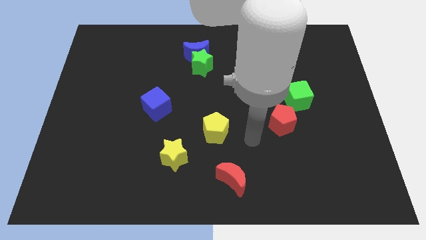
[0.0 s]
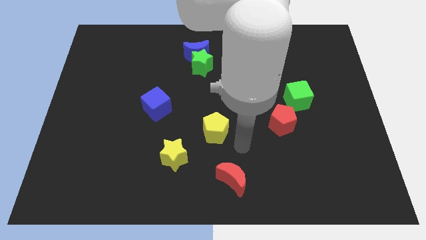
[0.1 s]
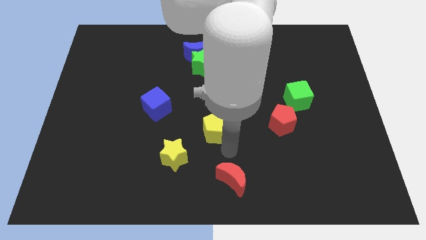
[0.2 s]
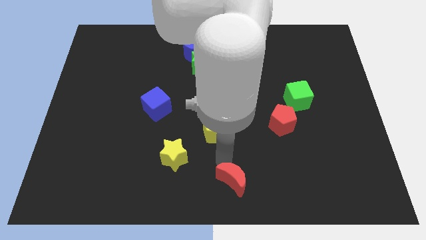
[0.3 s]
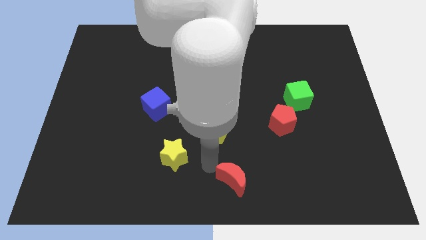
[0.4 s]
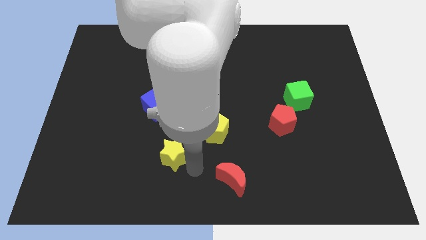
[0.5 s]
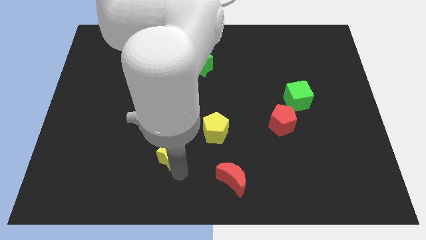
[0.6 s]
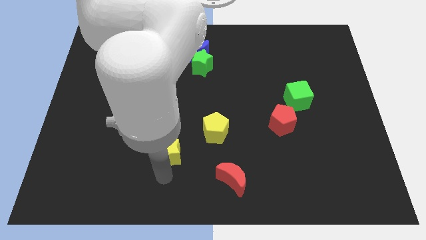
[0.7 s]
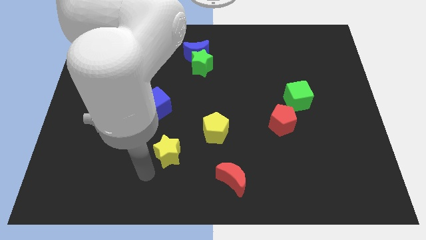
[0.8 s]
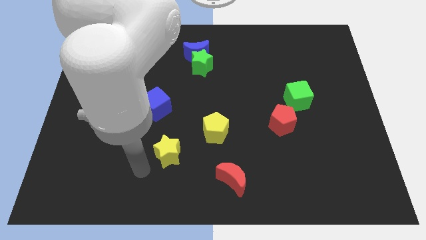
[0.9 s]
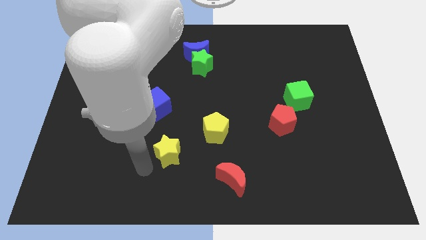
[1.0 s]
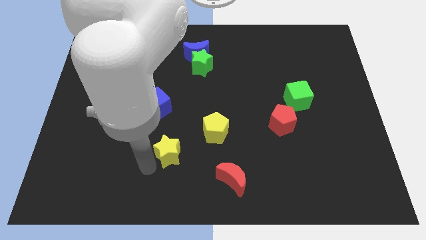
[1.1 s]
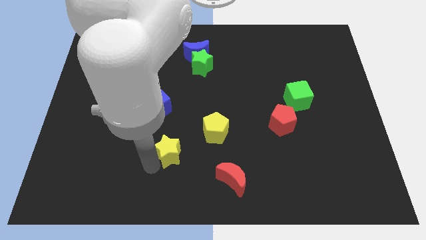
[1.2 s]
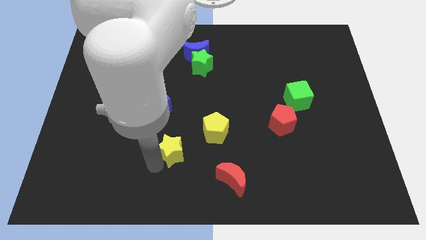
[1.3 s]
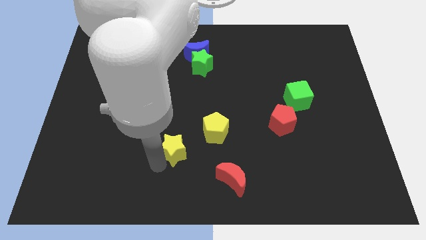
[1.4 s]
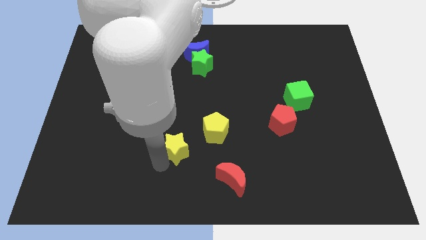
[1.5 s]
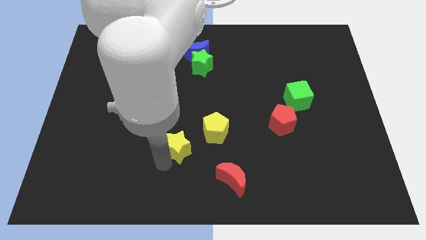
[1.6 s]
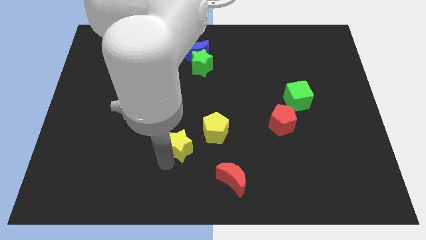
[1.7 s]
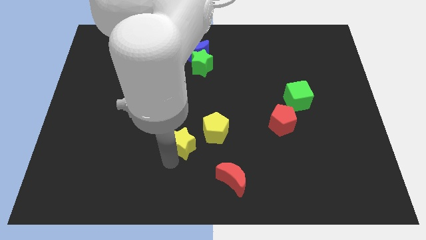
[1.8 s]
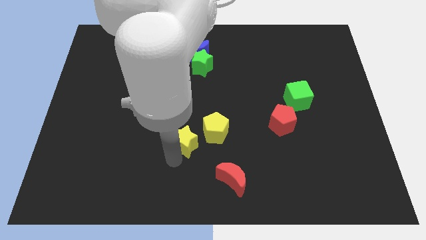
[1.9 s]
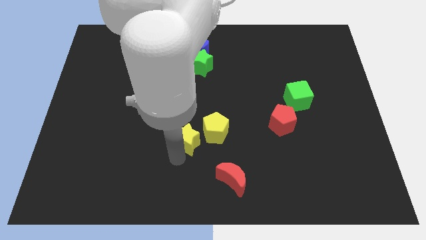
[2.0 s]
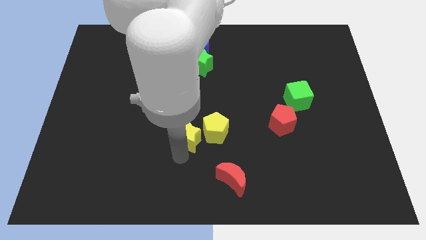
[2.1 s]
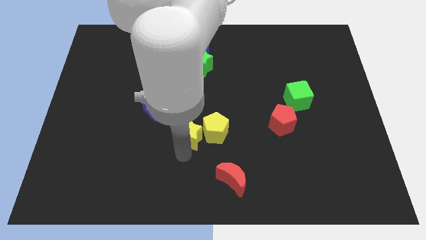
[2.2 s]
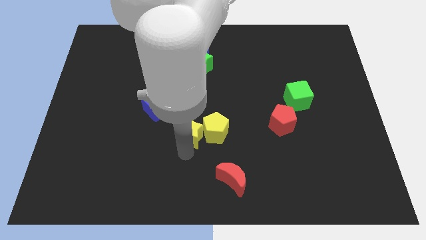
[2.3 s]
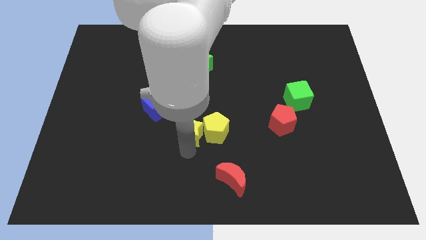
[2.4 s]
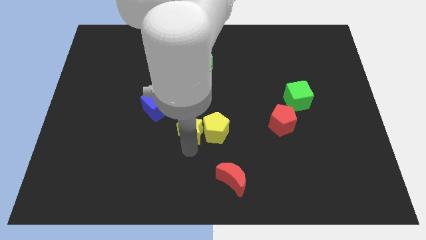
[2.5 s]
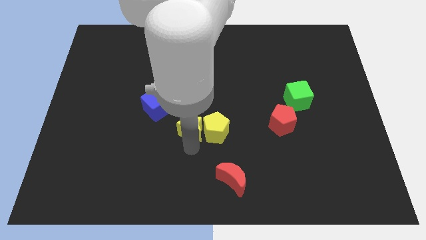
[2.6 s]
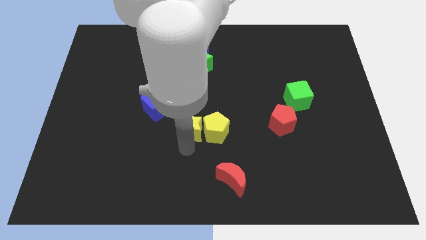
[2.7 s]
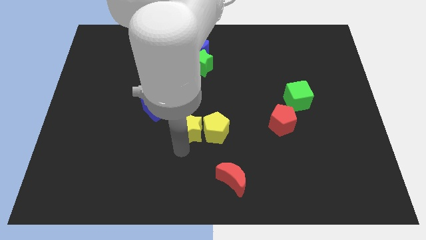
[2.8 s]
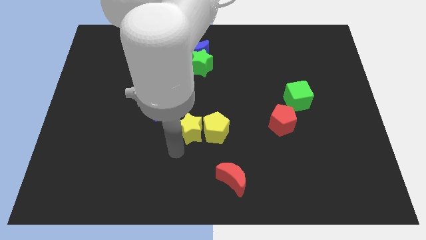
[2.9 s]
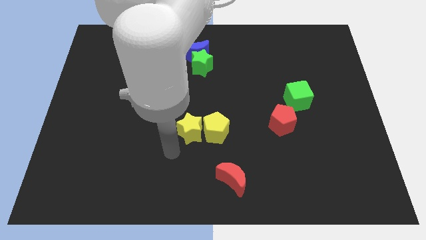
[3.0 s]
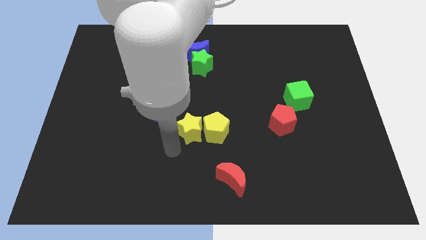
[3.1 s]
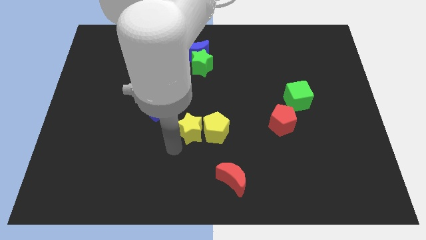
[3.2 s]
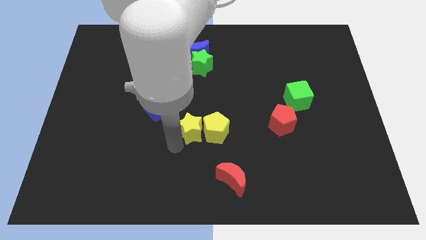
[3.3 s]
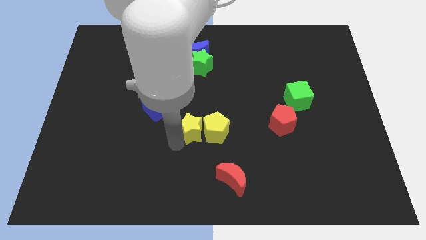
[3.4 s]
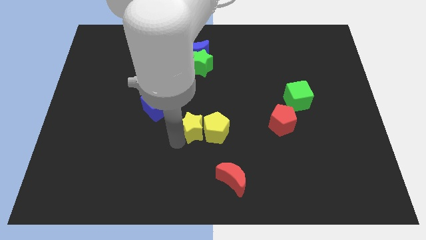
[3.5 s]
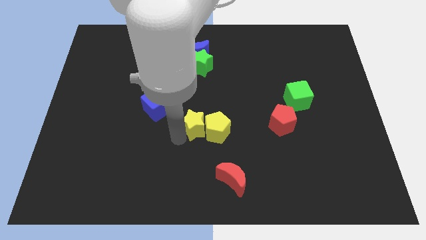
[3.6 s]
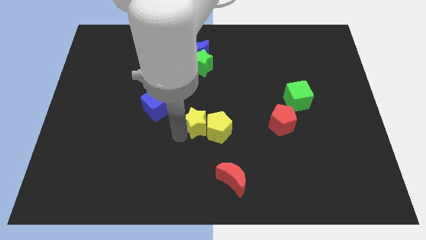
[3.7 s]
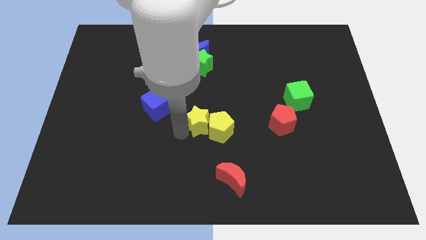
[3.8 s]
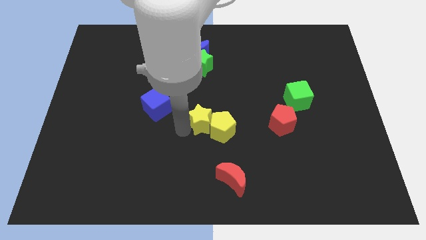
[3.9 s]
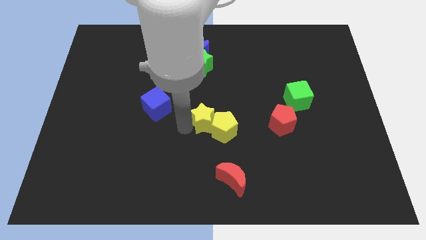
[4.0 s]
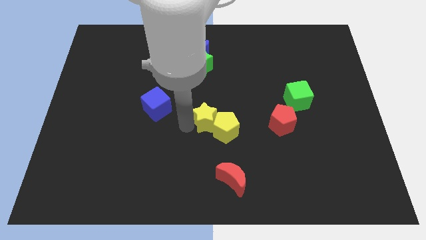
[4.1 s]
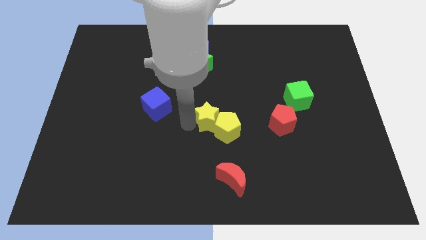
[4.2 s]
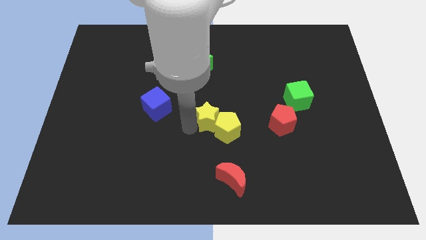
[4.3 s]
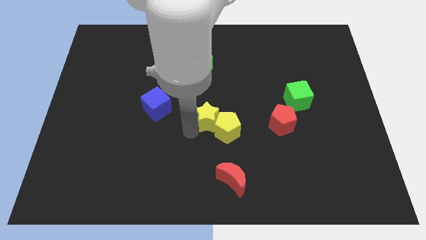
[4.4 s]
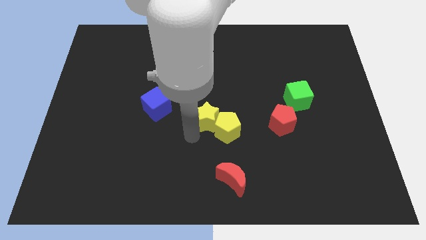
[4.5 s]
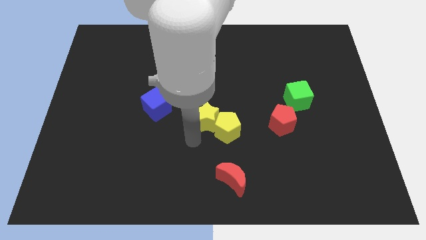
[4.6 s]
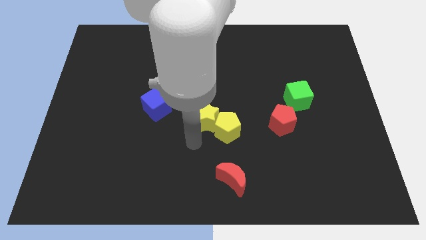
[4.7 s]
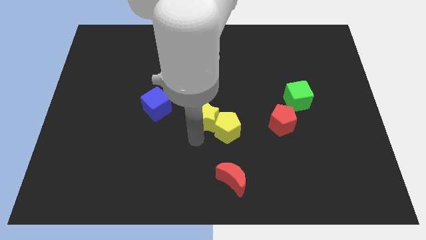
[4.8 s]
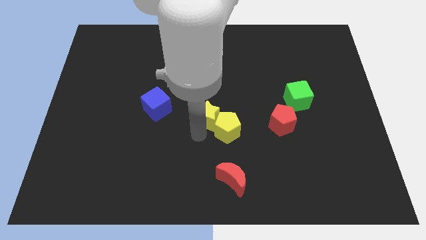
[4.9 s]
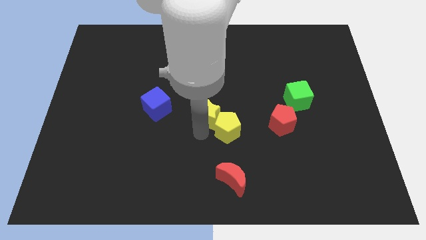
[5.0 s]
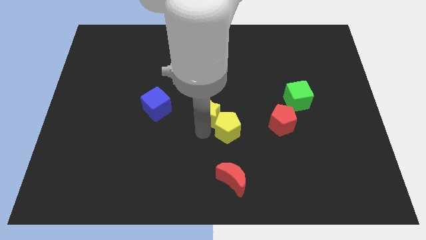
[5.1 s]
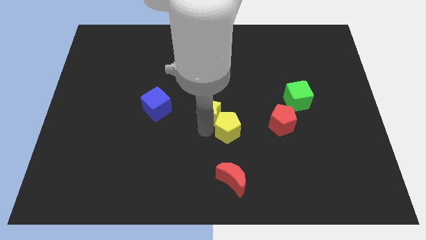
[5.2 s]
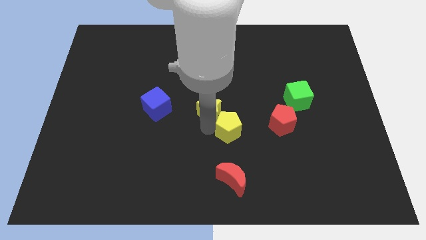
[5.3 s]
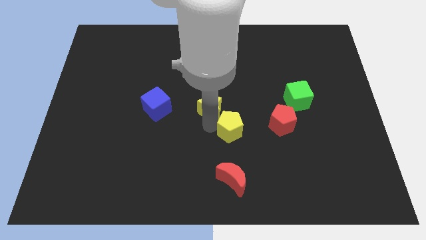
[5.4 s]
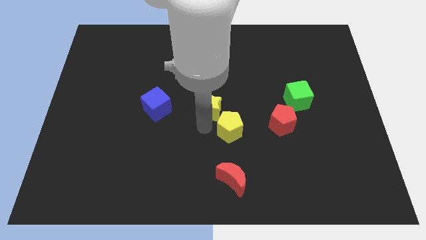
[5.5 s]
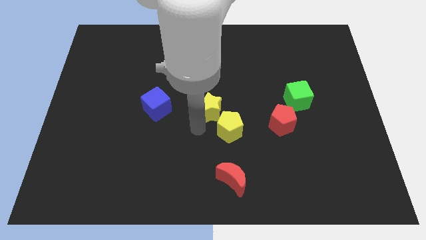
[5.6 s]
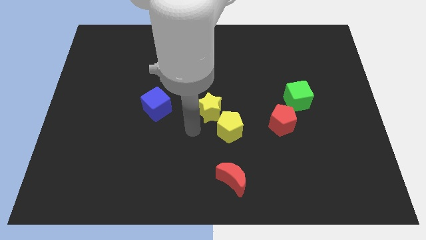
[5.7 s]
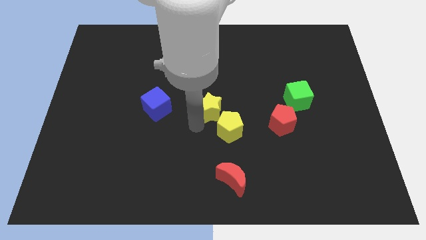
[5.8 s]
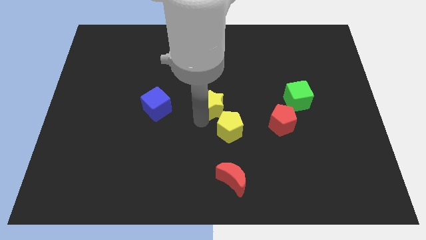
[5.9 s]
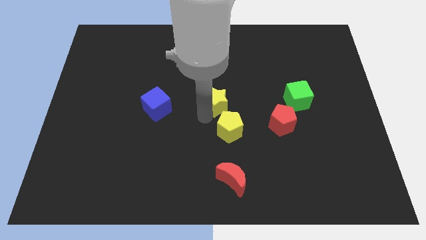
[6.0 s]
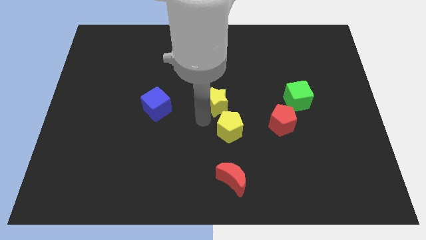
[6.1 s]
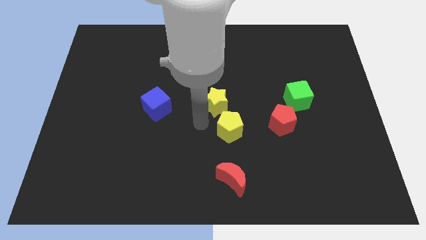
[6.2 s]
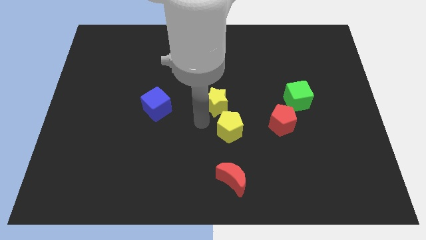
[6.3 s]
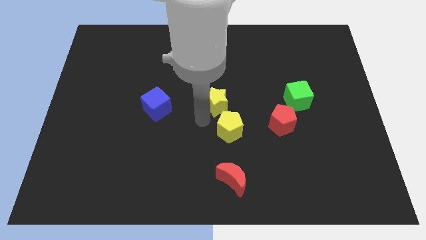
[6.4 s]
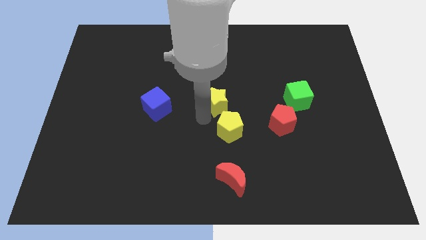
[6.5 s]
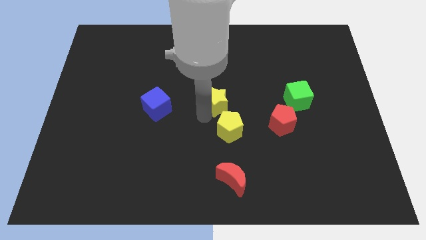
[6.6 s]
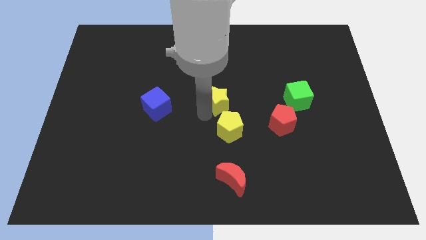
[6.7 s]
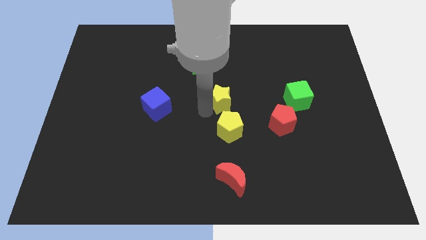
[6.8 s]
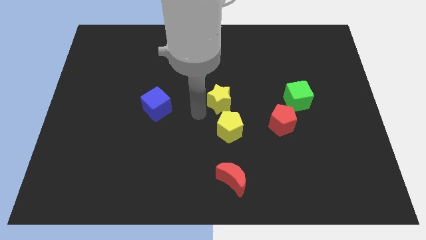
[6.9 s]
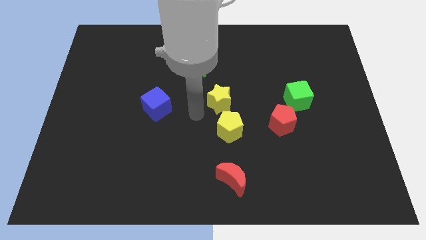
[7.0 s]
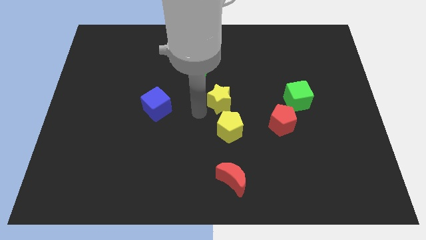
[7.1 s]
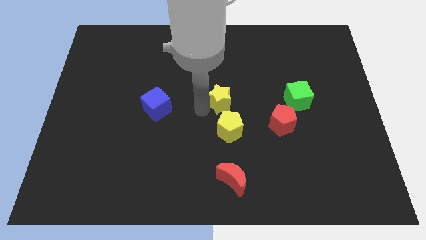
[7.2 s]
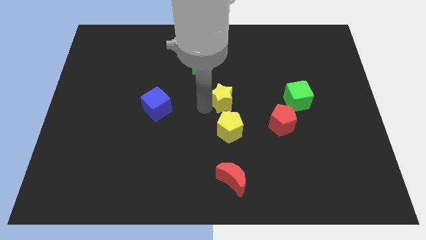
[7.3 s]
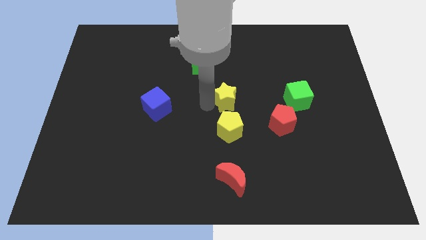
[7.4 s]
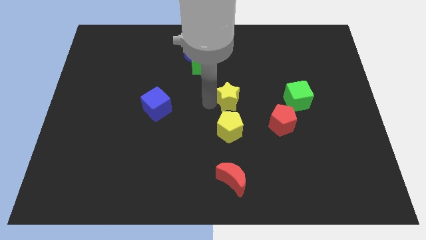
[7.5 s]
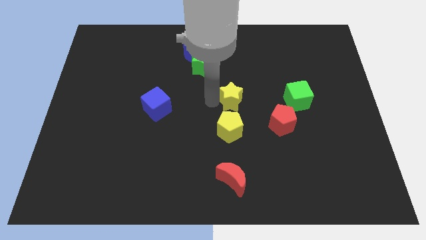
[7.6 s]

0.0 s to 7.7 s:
slide the yellow star upwards and then right

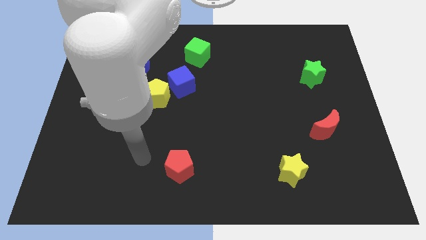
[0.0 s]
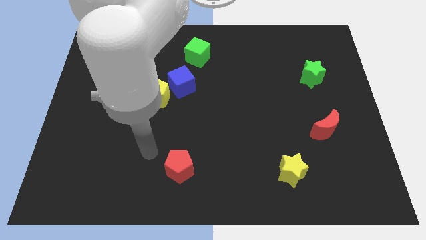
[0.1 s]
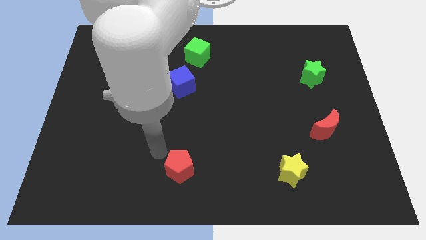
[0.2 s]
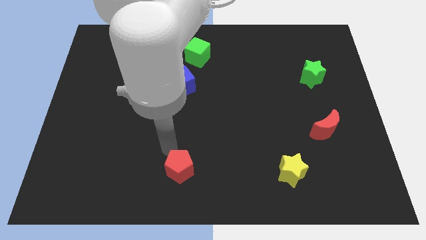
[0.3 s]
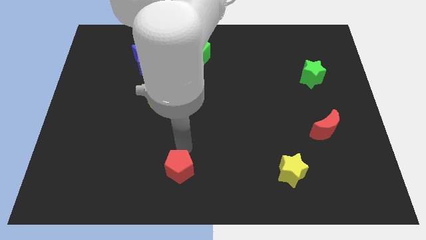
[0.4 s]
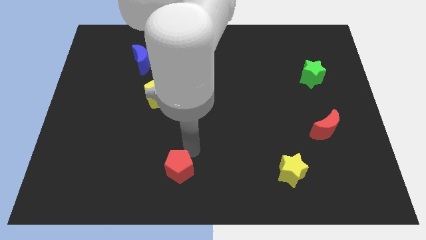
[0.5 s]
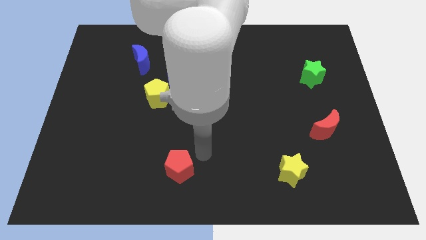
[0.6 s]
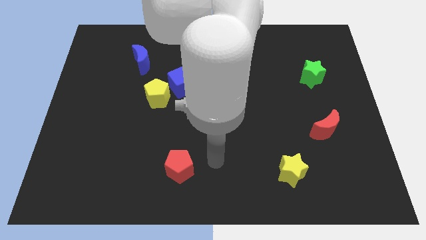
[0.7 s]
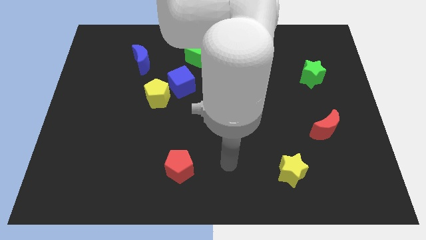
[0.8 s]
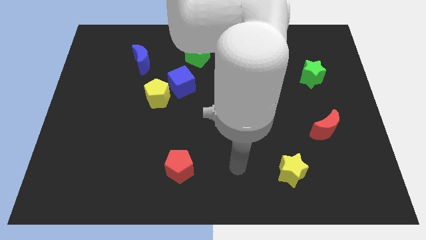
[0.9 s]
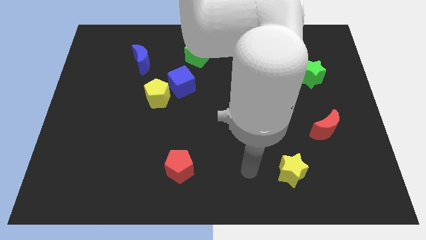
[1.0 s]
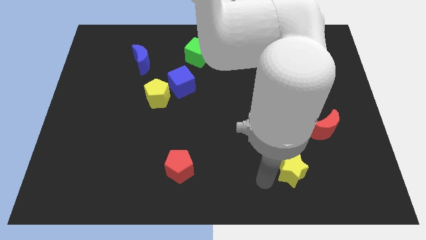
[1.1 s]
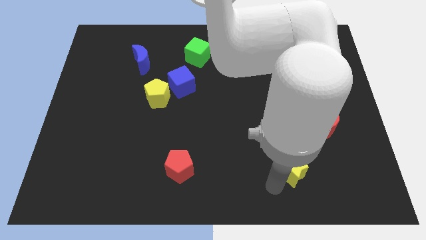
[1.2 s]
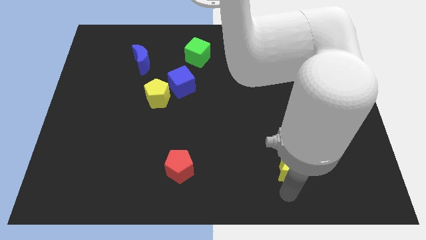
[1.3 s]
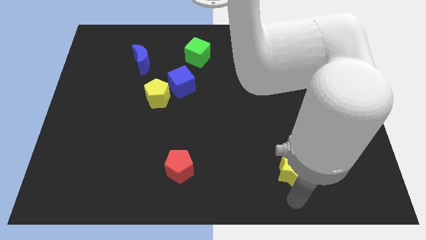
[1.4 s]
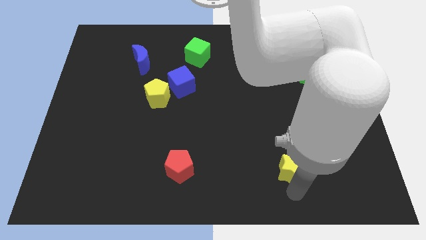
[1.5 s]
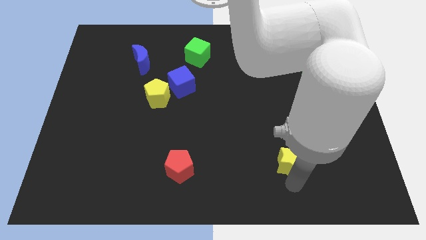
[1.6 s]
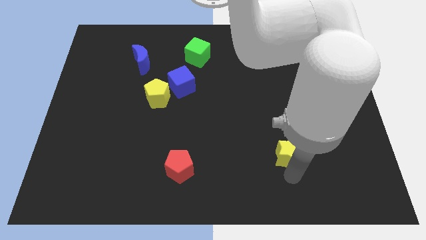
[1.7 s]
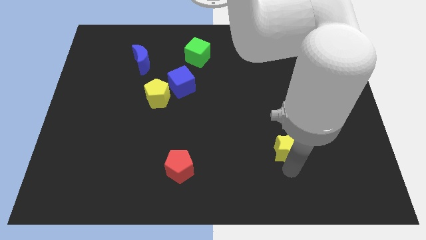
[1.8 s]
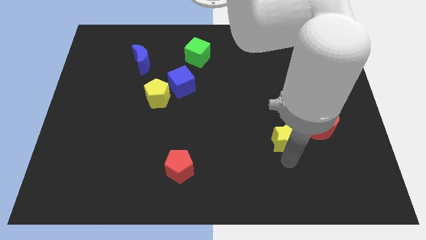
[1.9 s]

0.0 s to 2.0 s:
move the yellow star a little up
